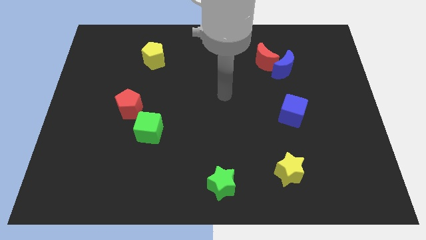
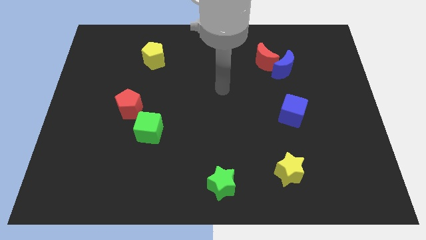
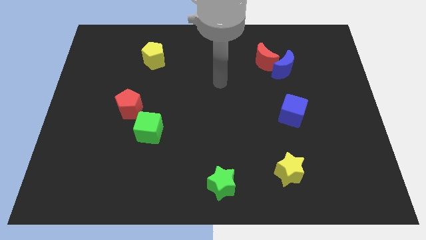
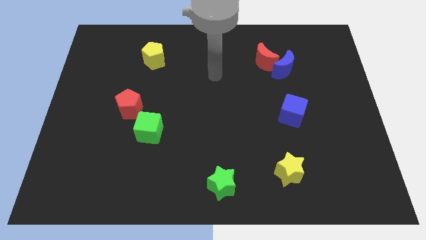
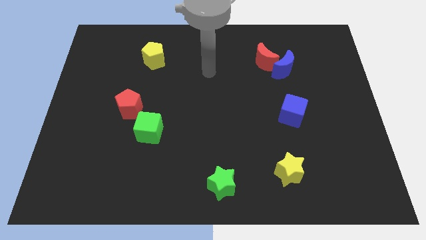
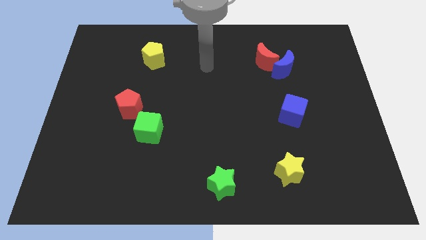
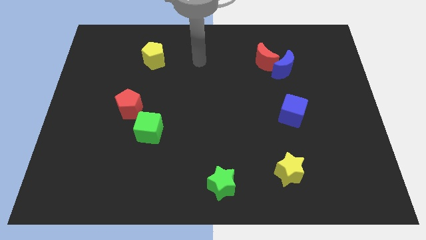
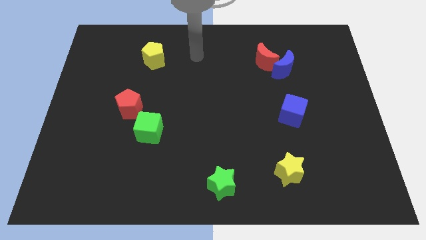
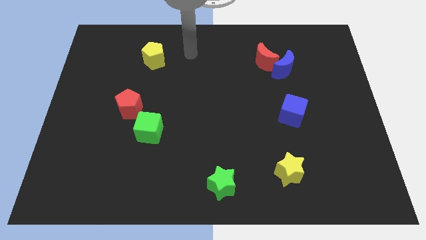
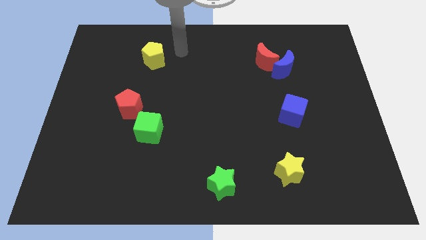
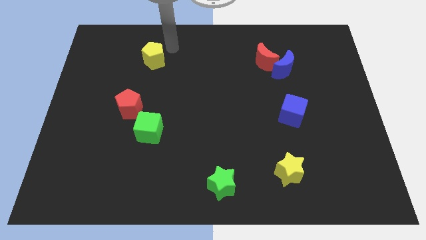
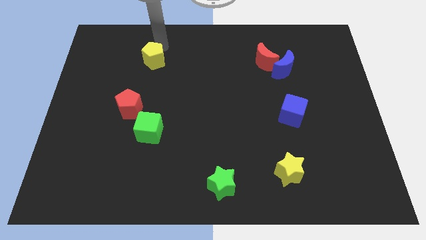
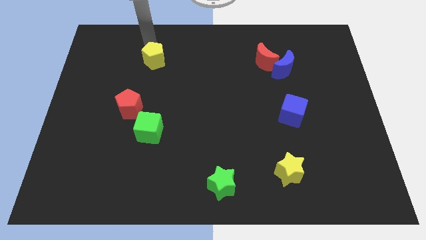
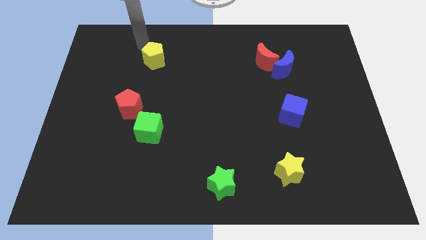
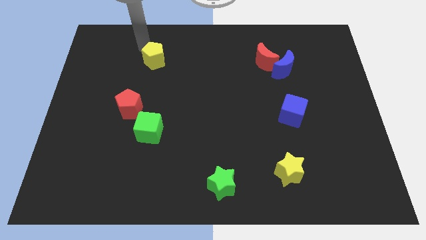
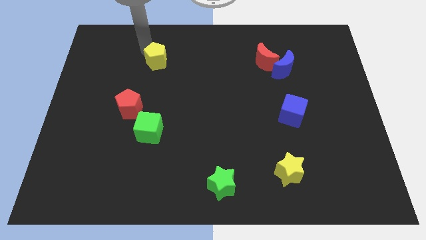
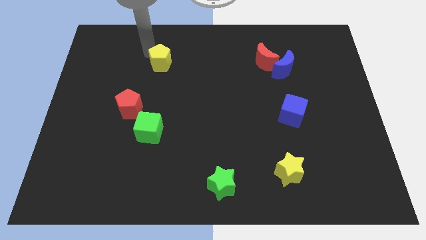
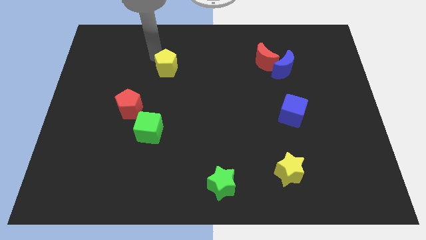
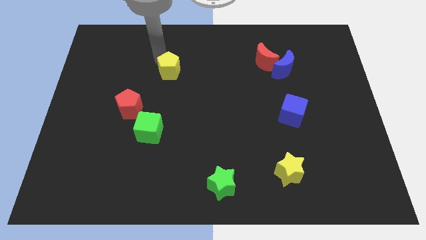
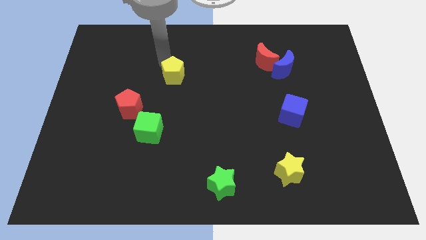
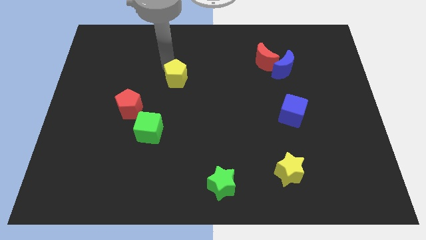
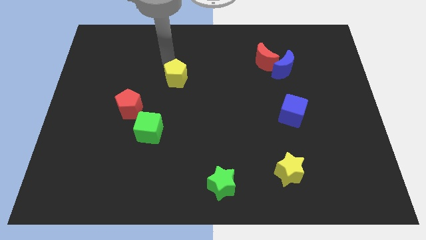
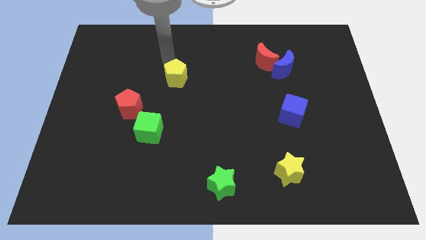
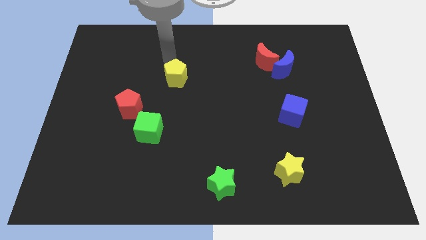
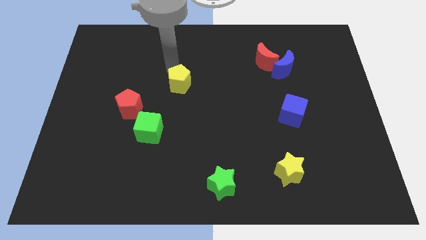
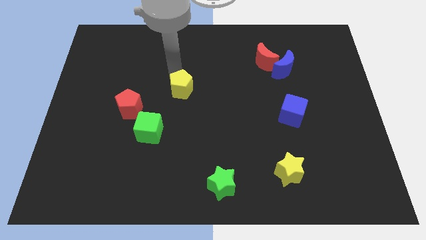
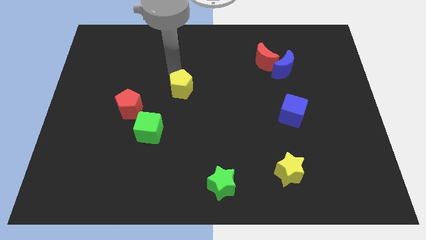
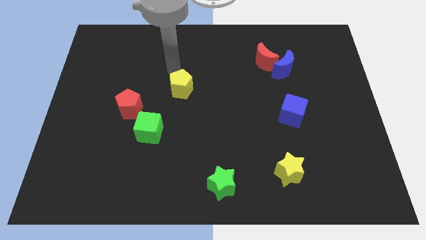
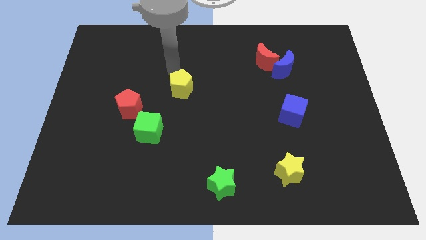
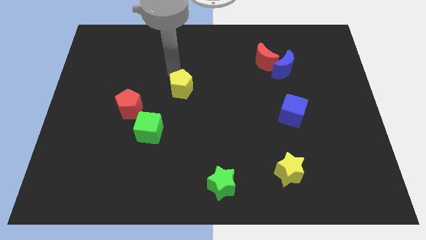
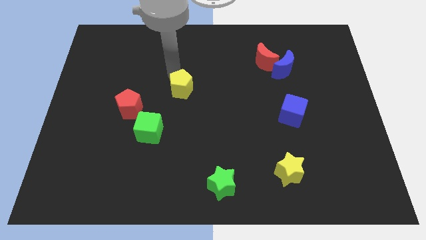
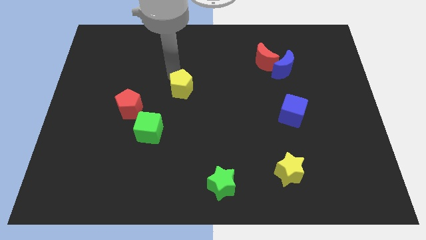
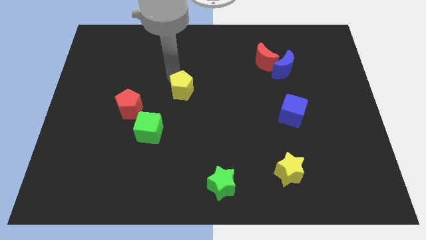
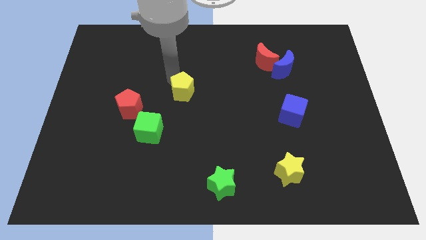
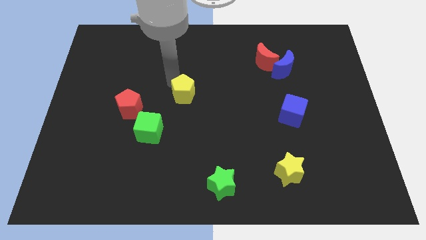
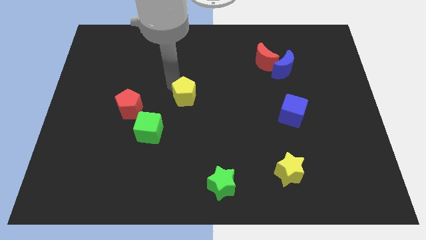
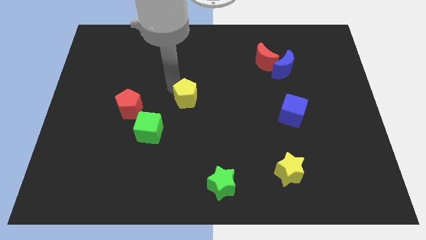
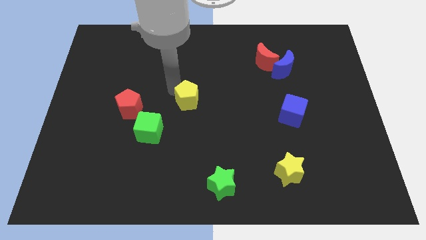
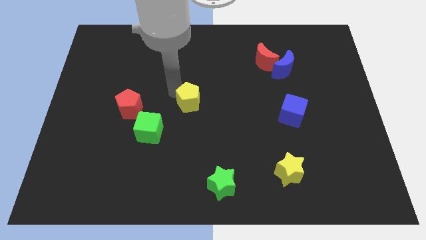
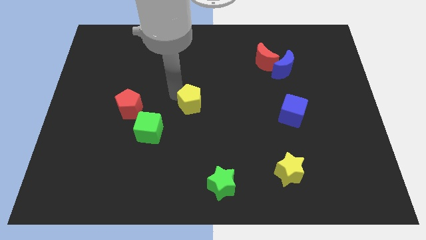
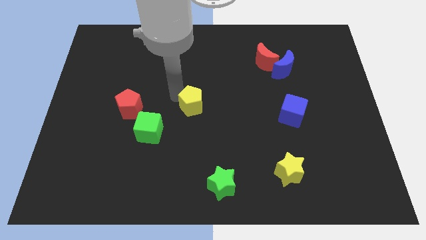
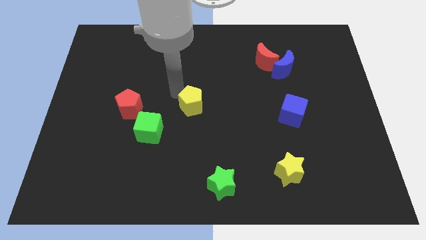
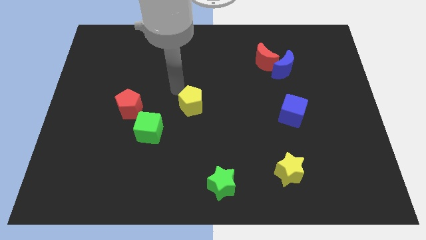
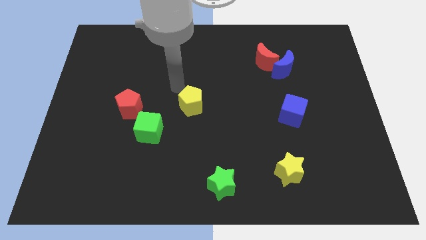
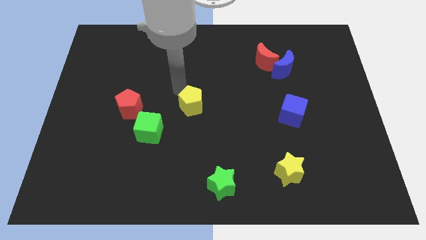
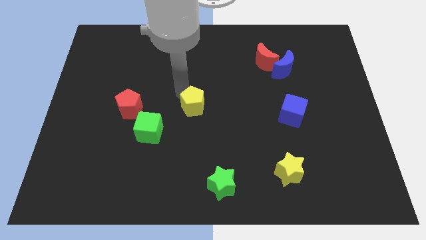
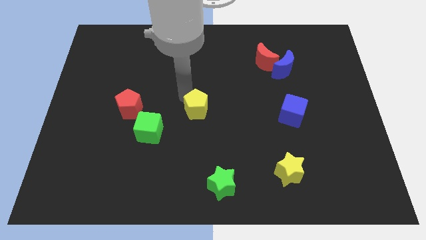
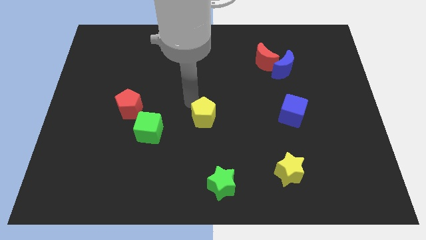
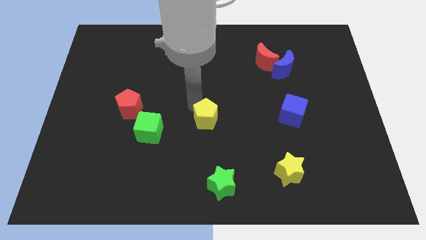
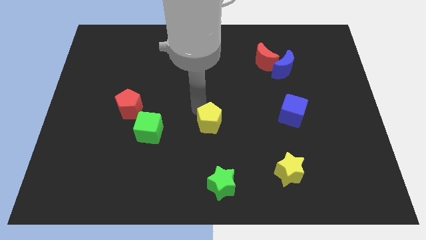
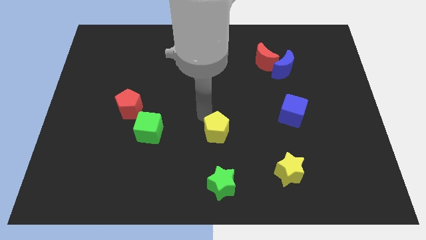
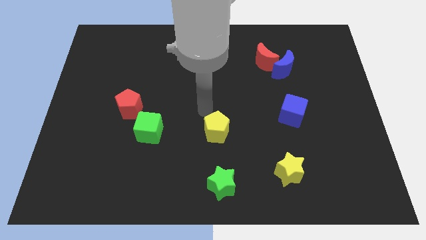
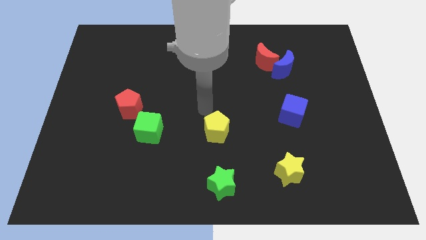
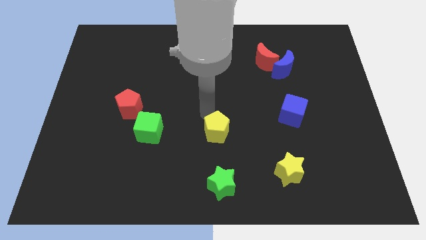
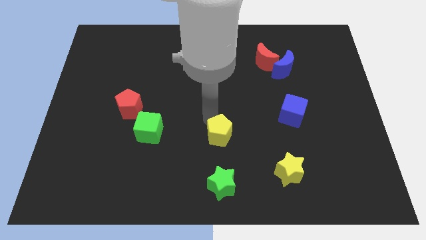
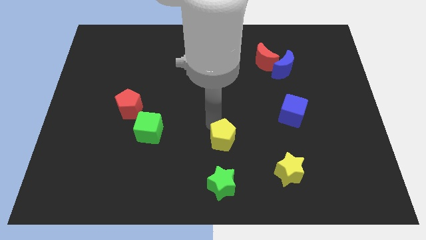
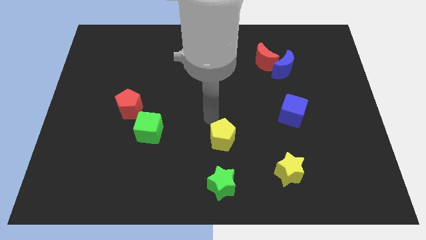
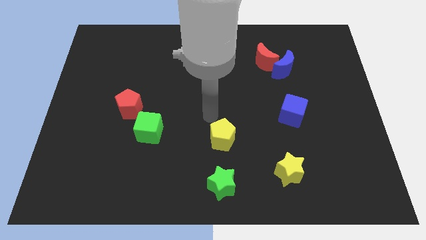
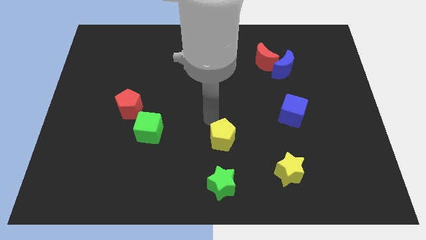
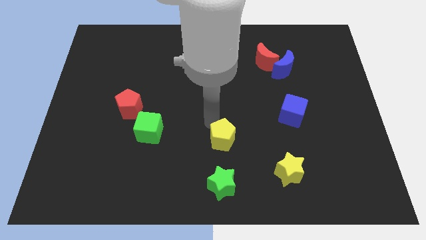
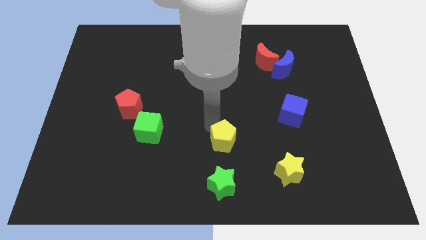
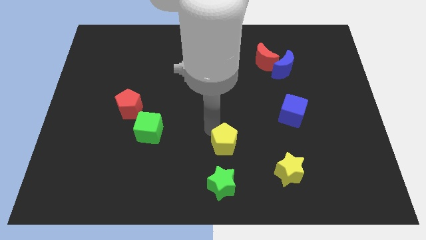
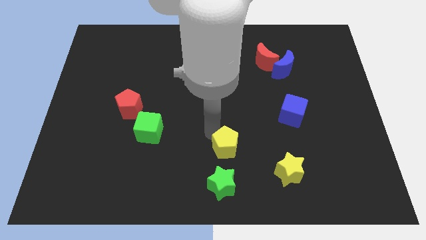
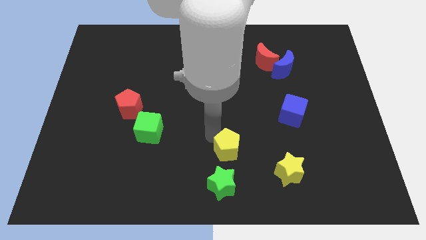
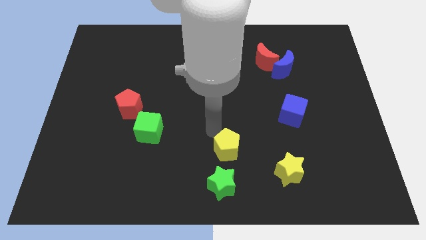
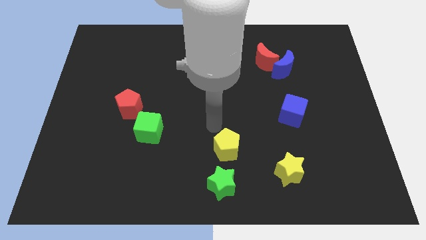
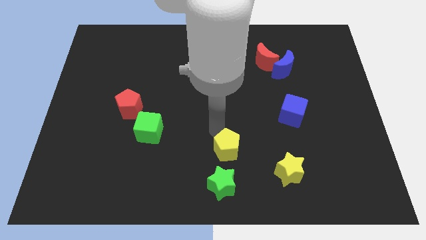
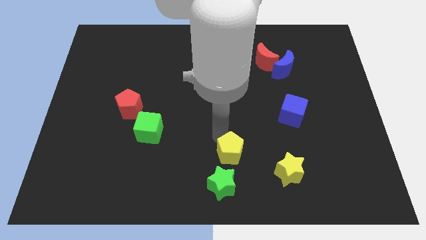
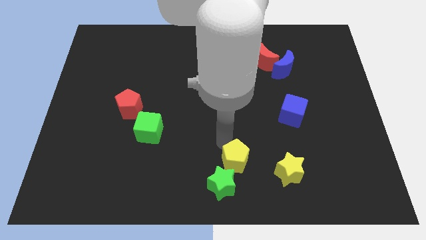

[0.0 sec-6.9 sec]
move the yellow pentagon to the left side of the yellow star

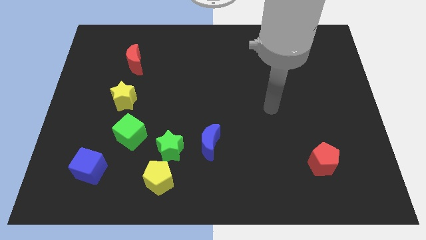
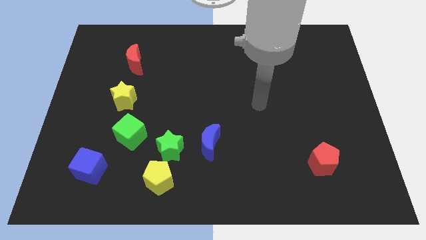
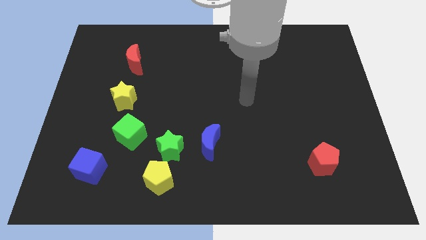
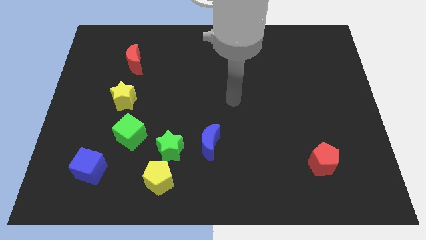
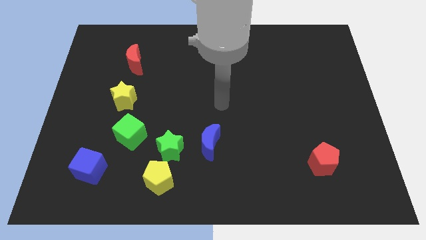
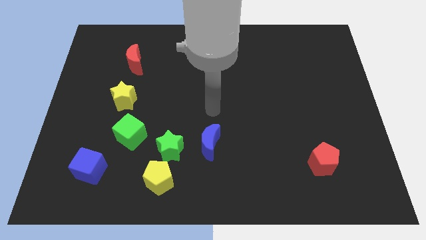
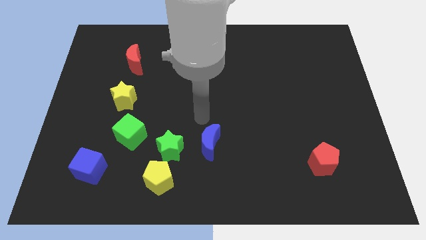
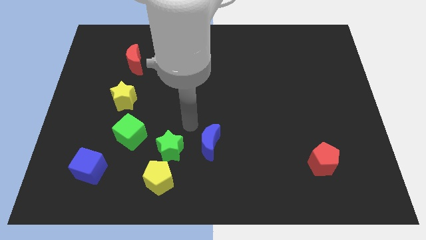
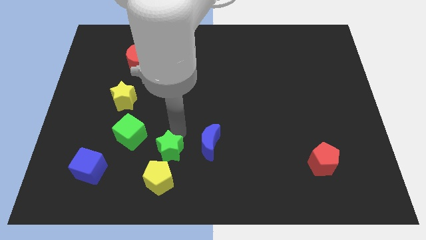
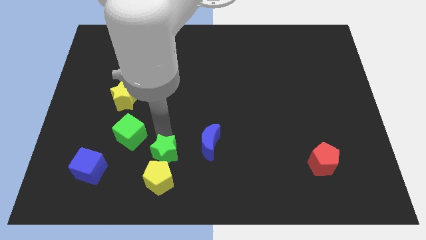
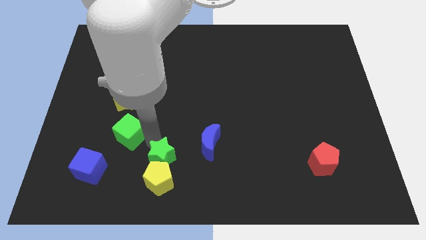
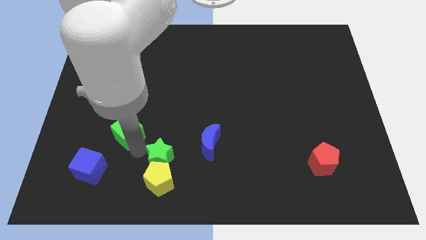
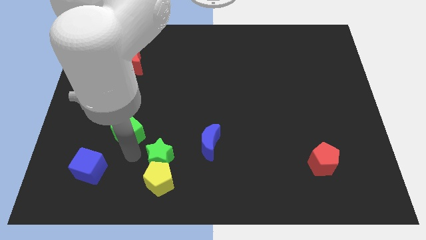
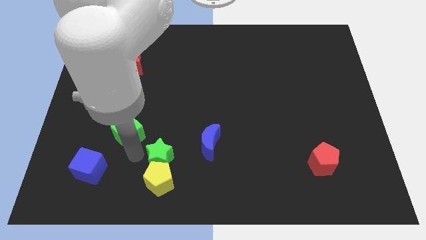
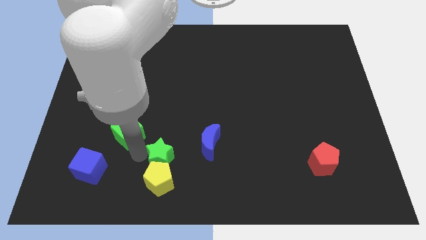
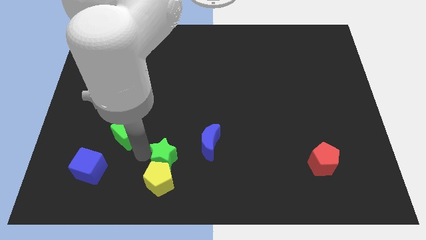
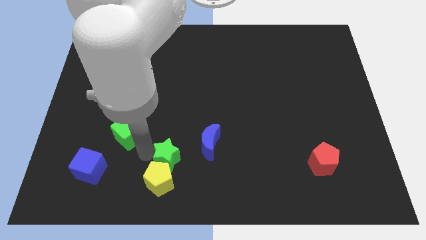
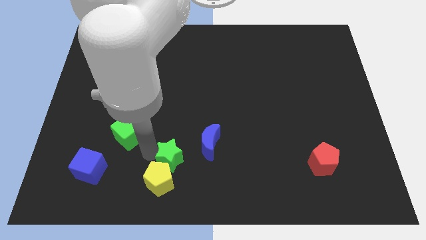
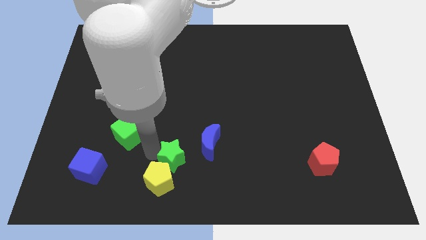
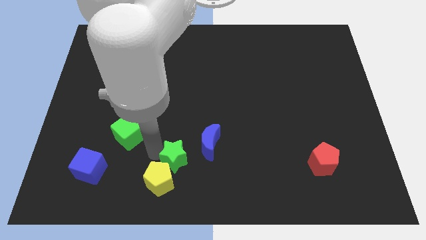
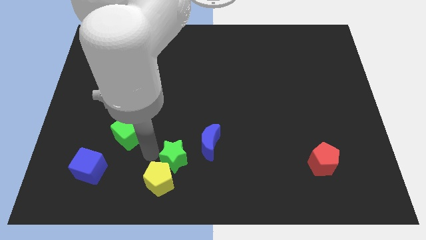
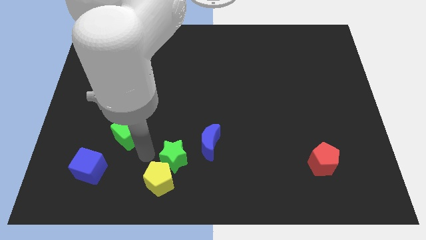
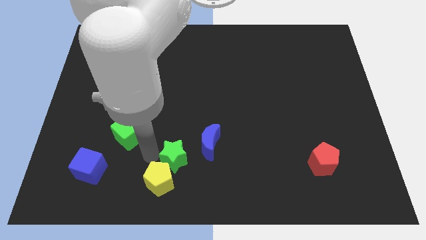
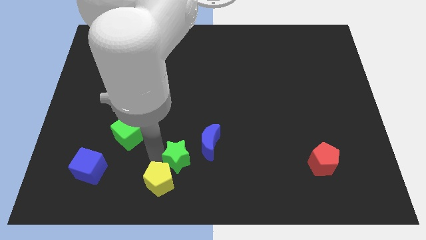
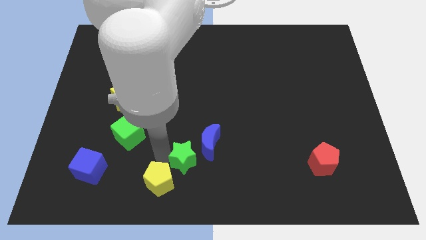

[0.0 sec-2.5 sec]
move the green star right of the yellow pentagon
